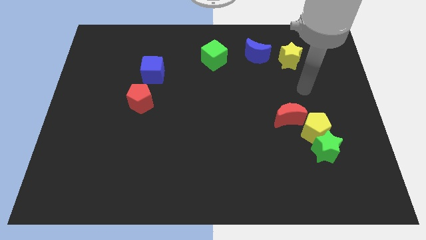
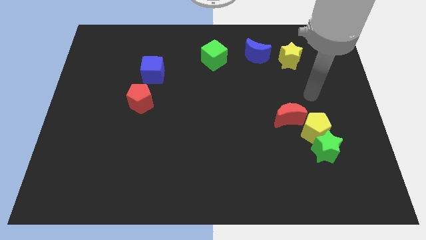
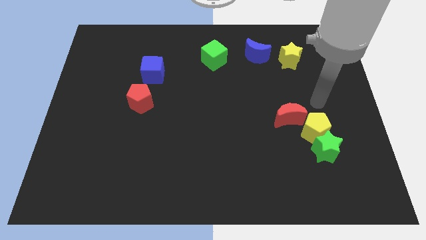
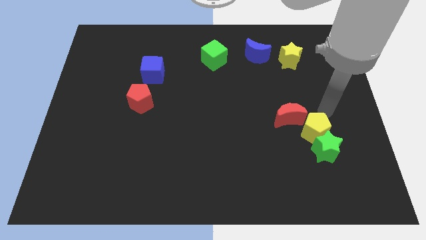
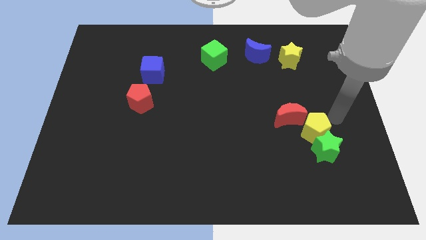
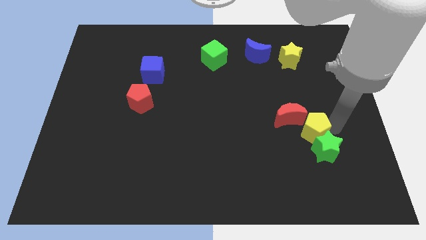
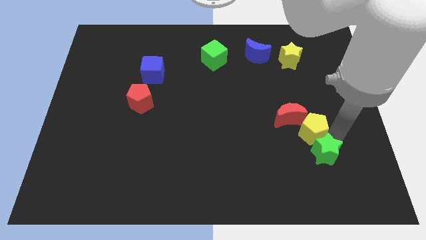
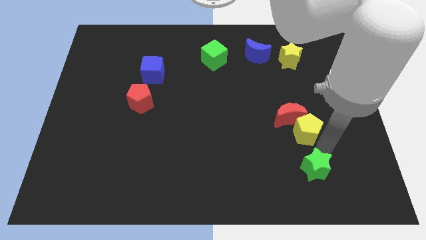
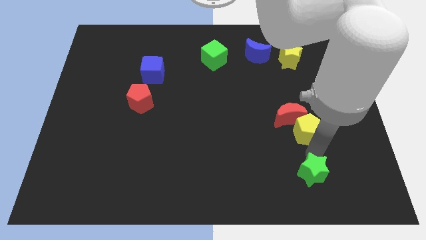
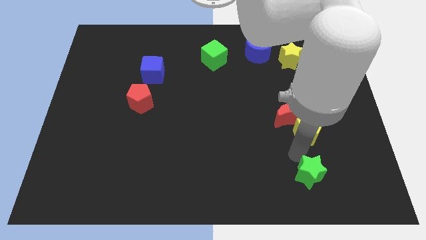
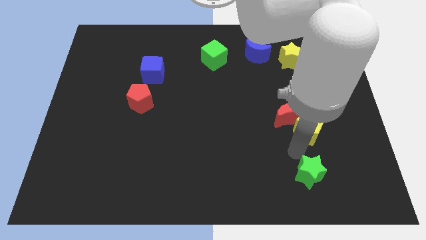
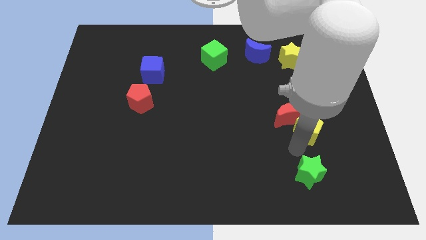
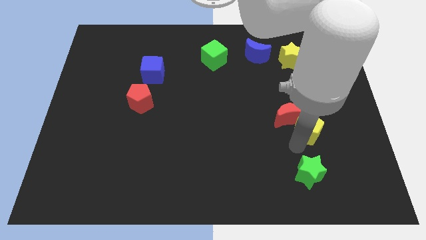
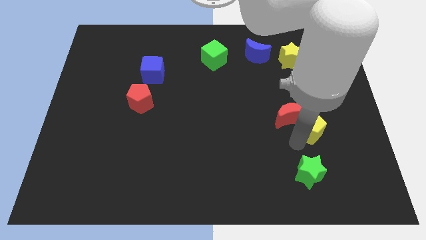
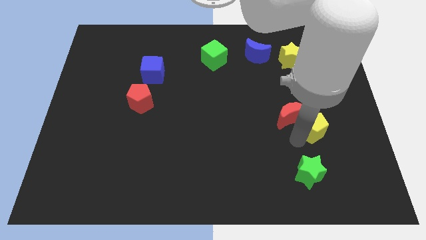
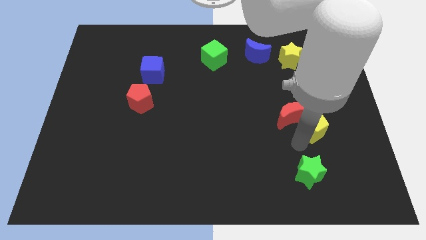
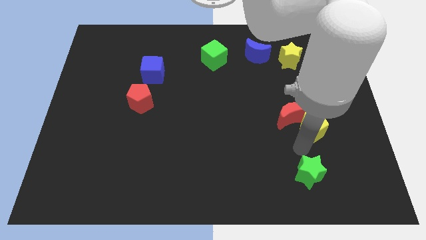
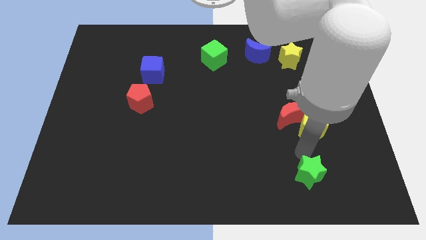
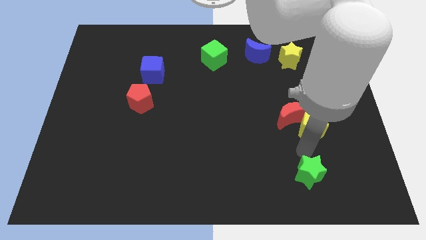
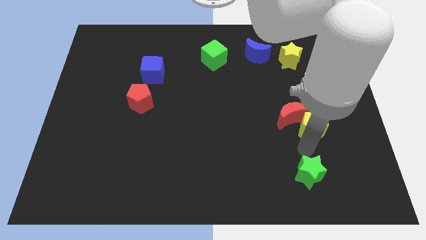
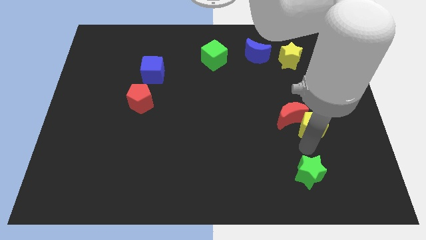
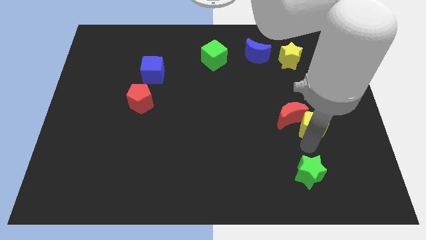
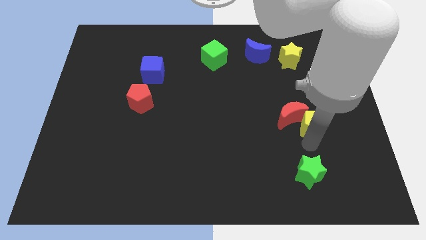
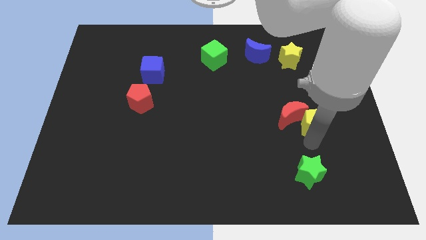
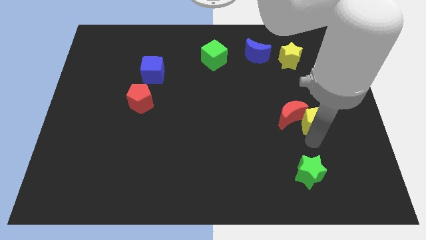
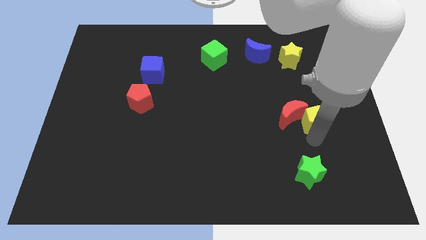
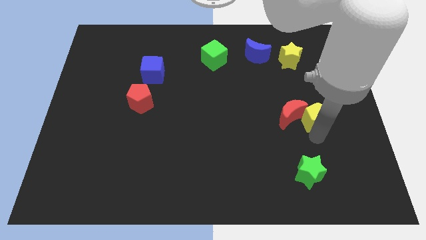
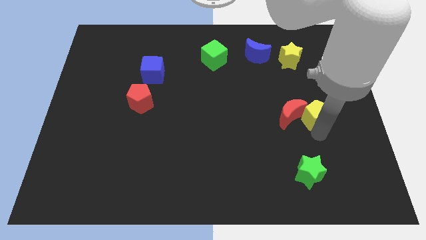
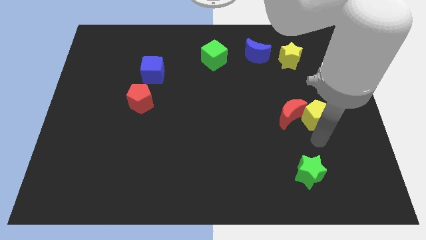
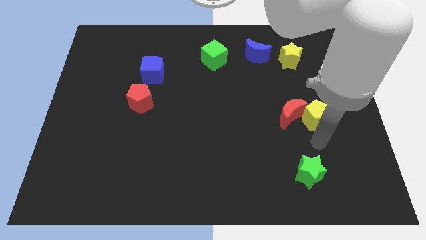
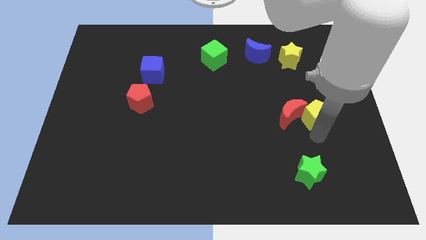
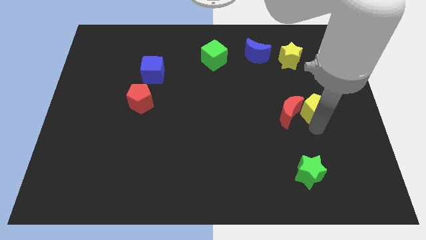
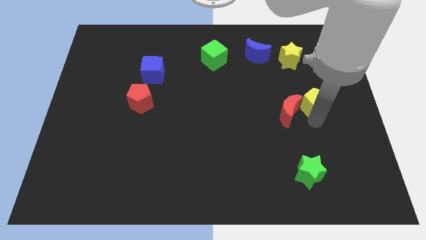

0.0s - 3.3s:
slightly slide the yellow pentagon upwards

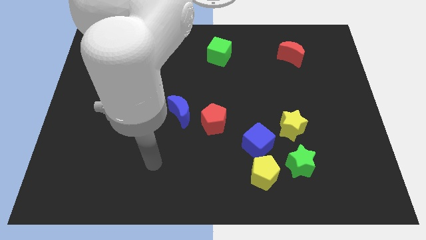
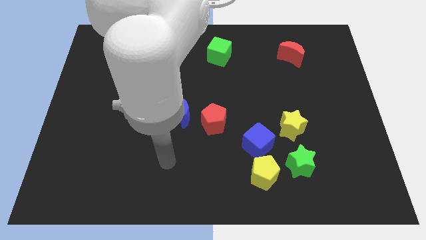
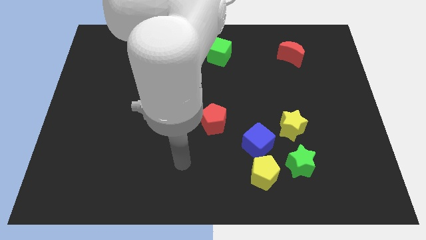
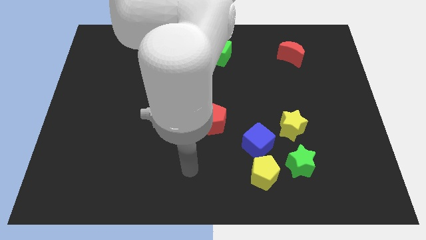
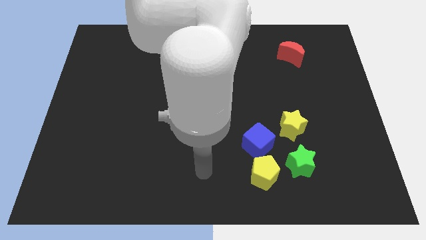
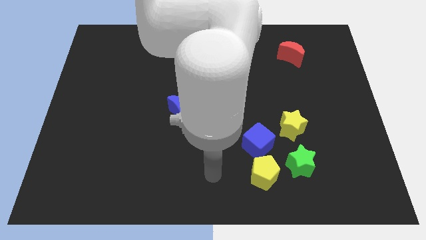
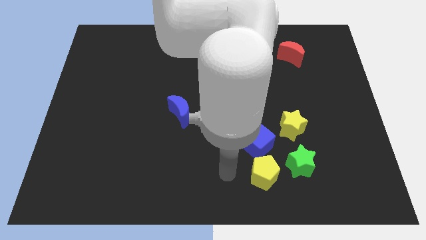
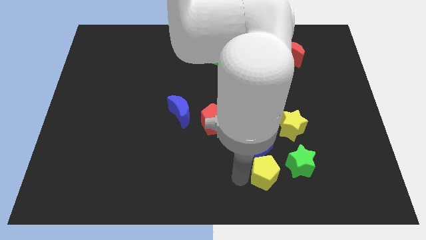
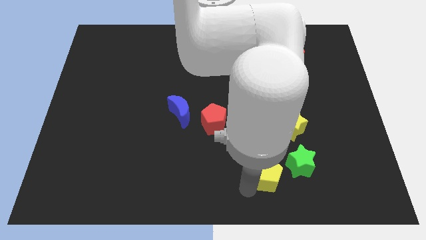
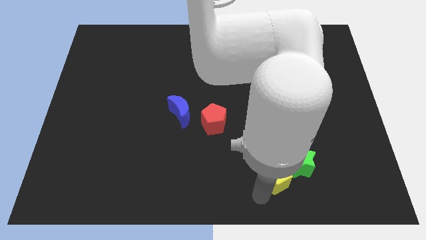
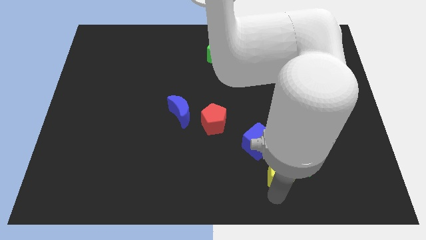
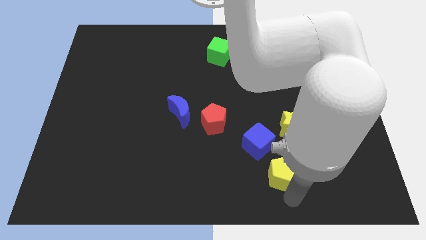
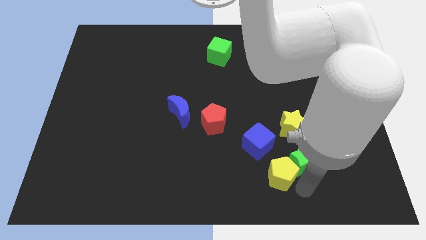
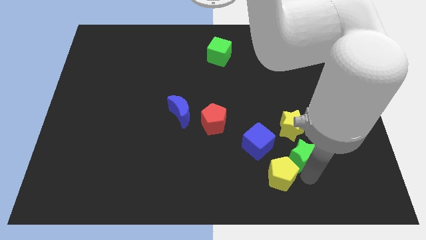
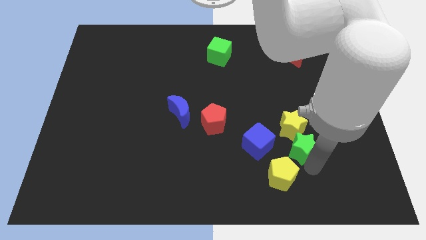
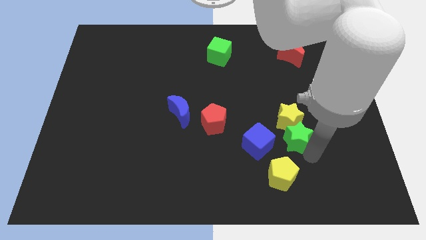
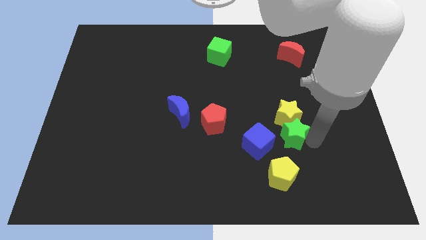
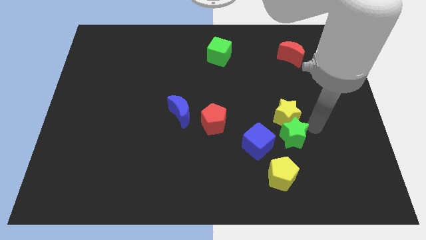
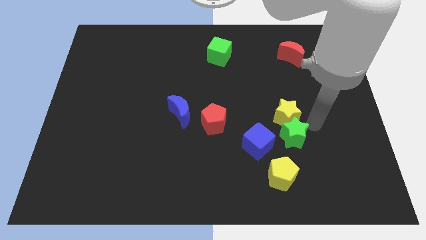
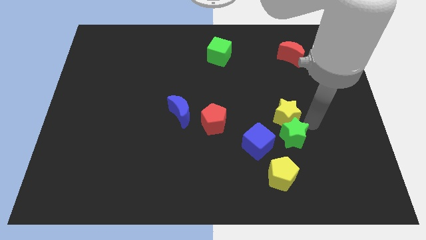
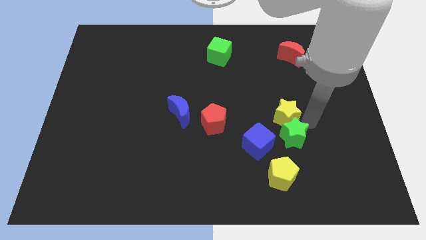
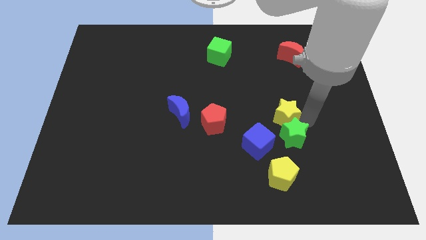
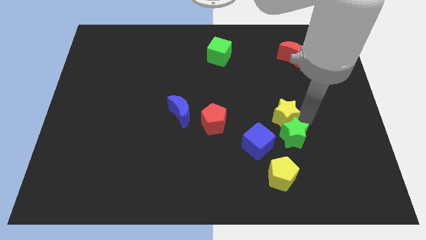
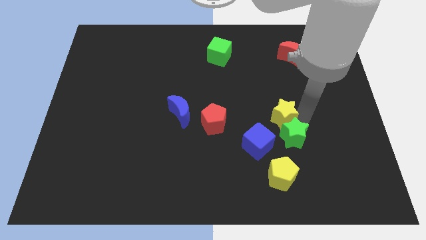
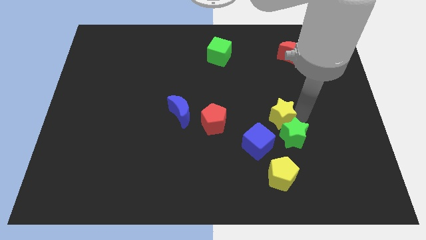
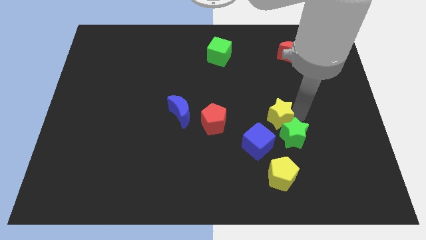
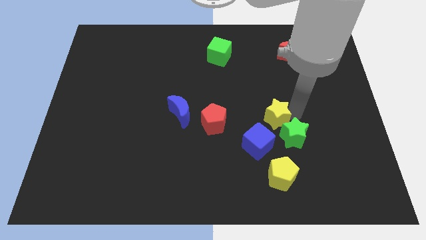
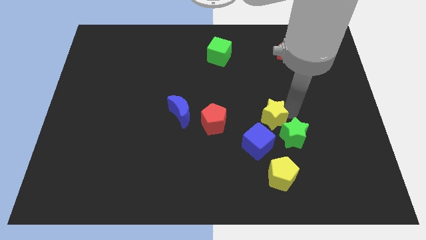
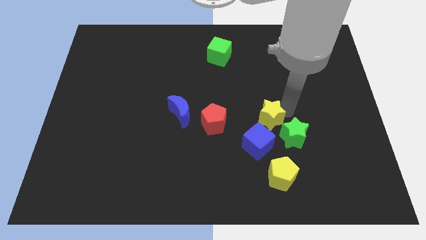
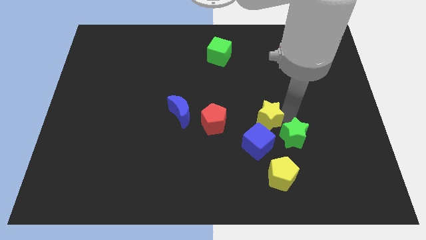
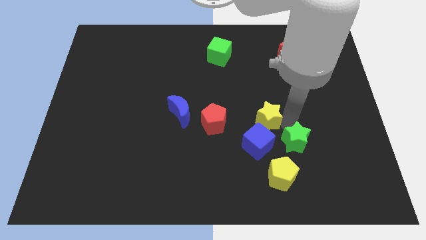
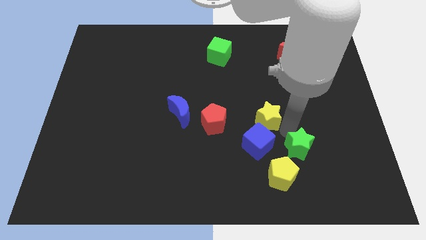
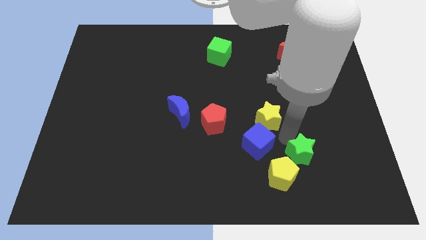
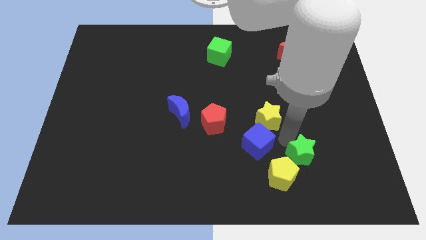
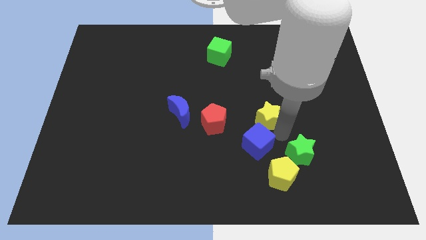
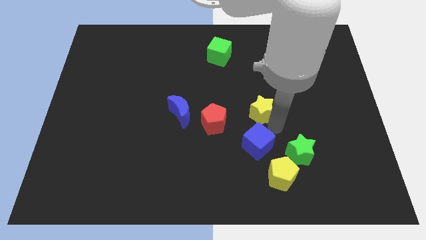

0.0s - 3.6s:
slide the yellow star a little diagonally upwards and left

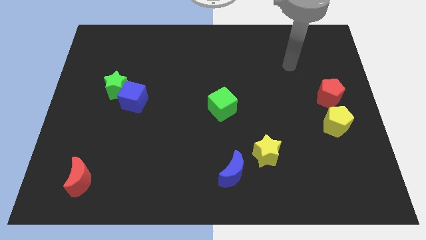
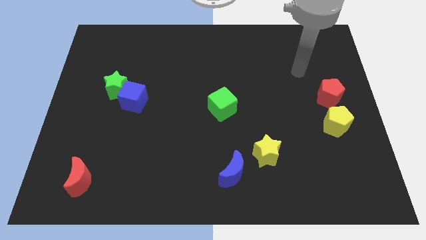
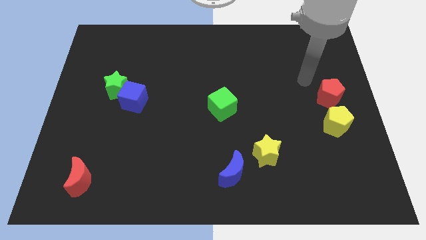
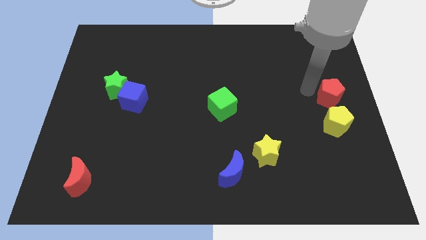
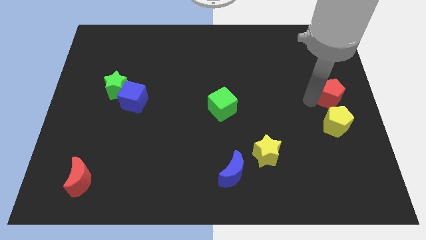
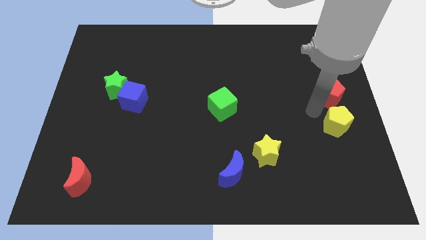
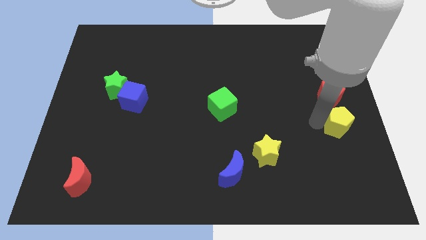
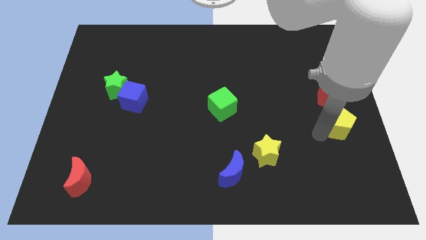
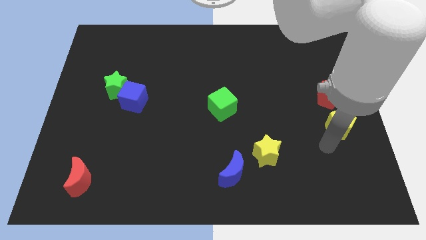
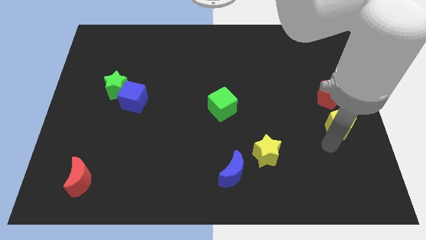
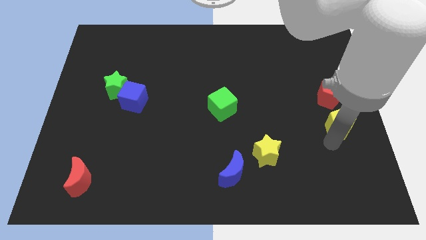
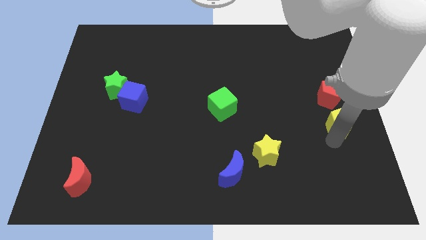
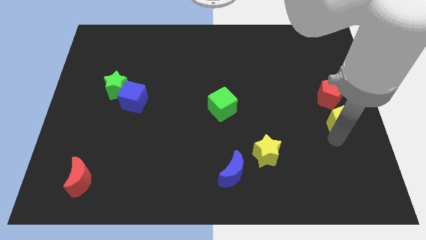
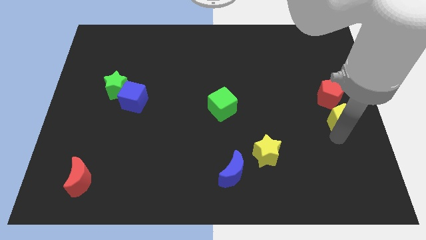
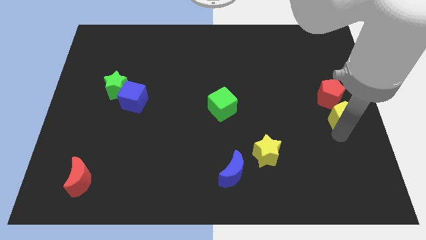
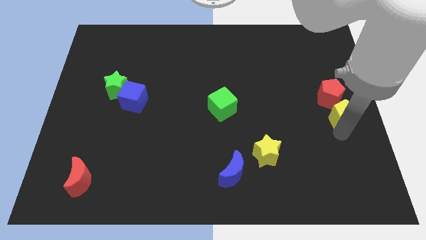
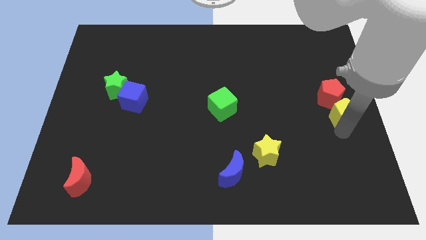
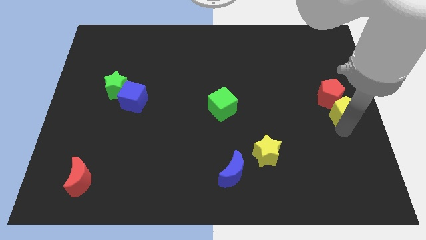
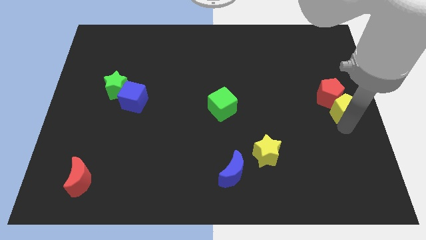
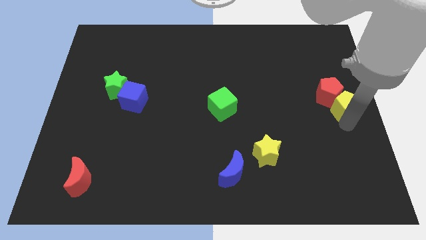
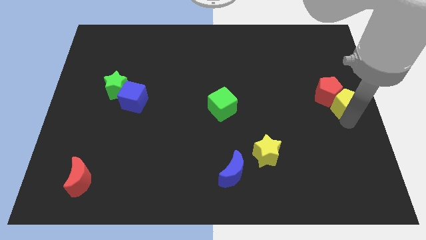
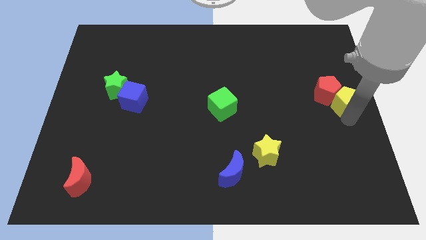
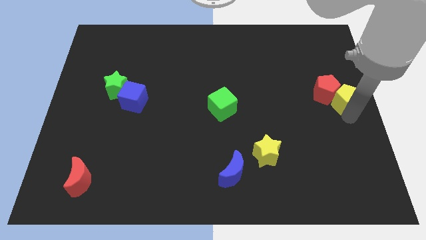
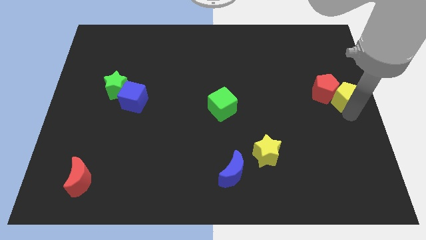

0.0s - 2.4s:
slightly push the yellow pentagon upwards
